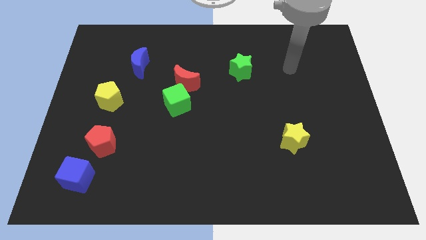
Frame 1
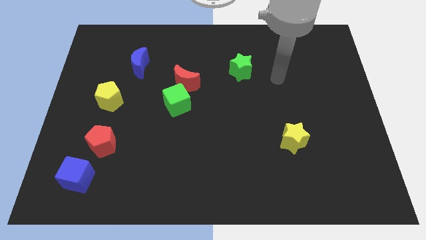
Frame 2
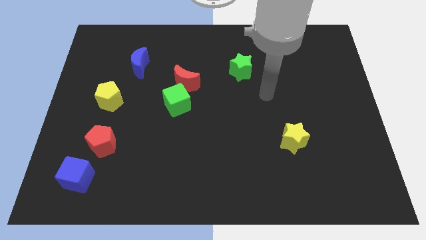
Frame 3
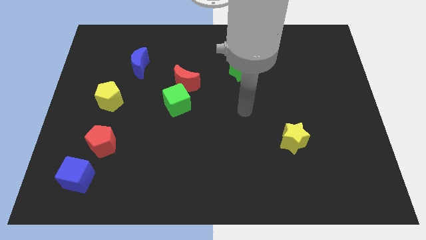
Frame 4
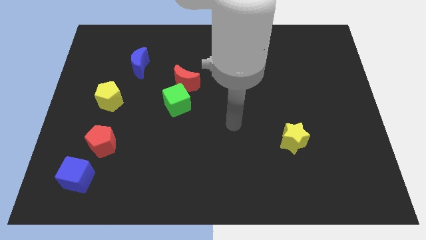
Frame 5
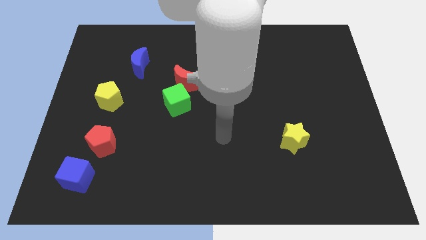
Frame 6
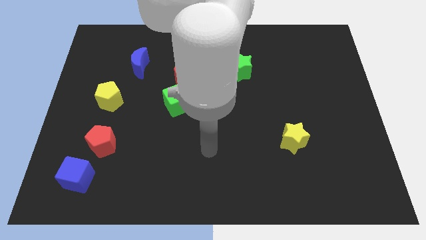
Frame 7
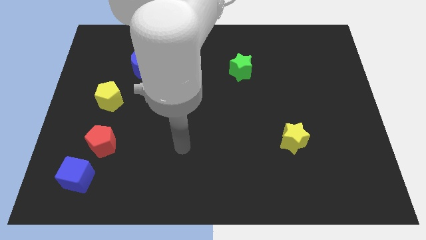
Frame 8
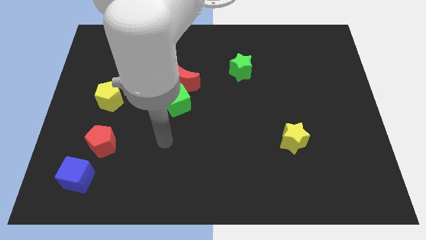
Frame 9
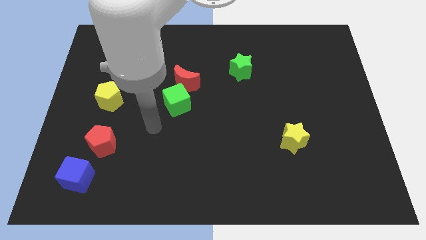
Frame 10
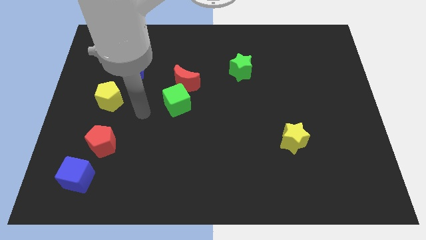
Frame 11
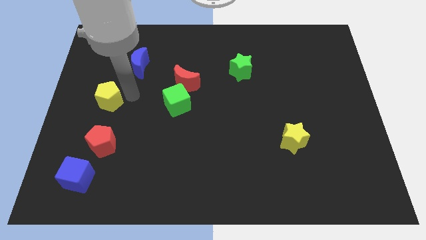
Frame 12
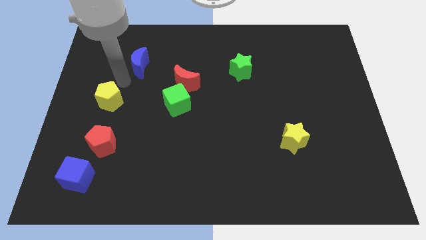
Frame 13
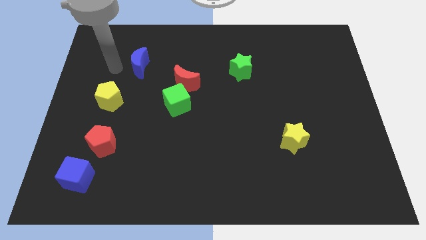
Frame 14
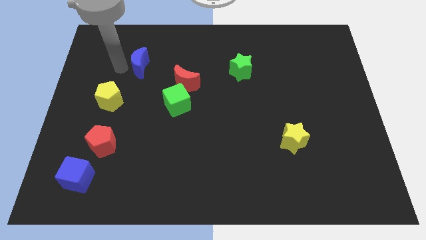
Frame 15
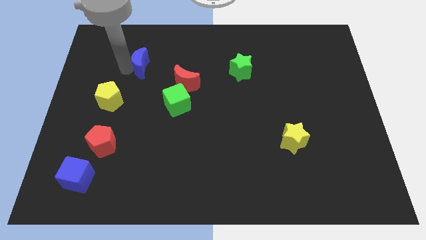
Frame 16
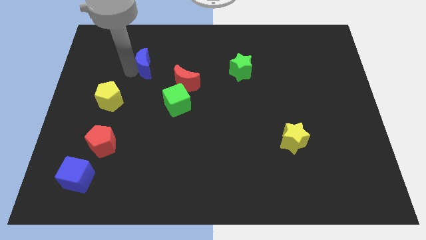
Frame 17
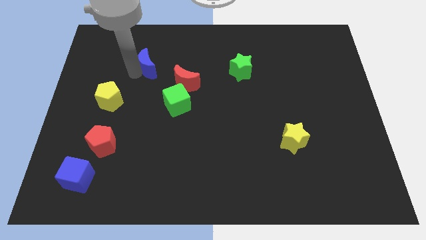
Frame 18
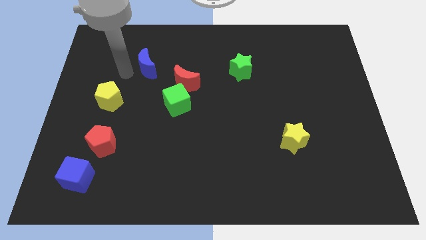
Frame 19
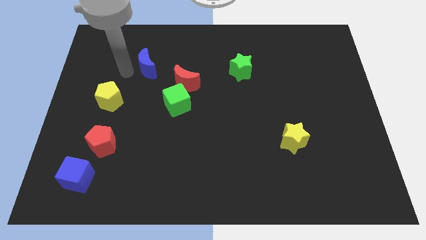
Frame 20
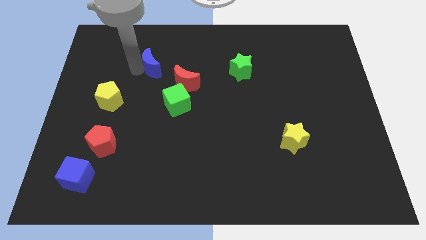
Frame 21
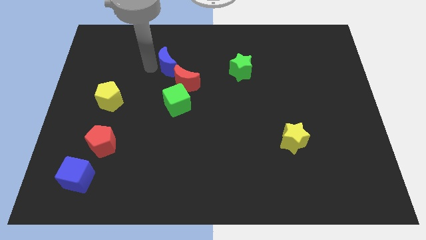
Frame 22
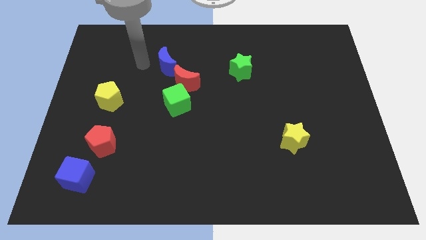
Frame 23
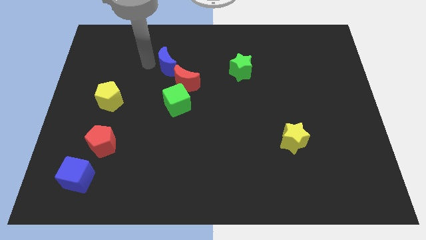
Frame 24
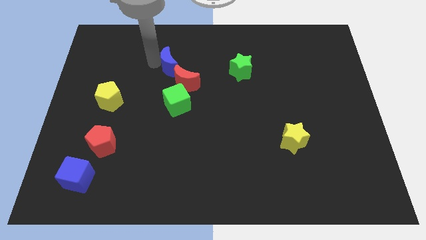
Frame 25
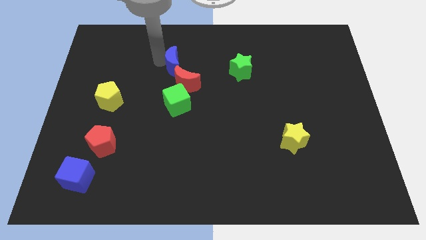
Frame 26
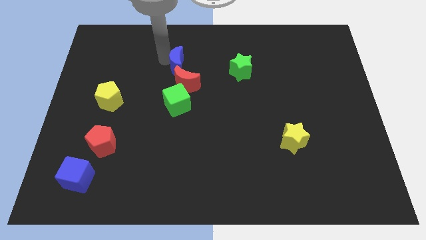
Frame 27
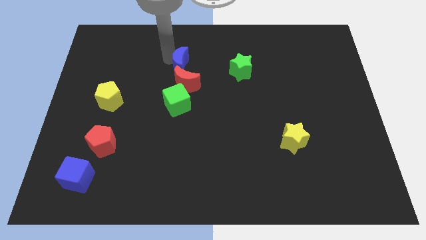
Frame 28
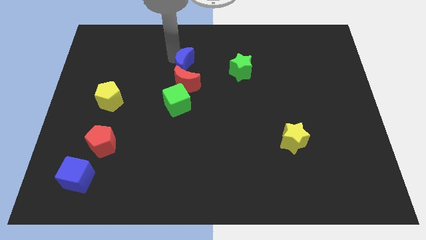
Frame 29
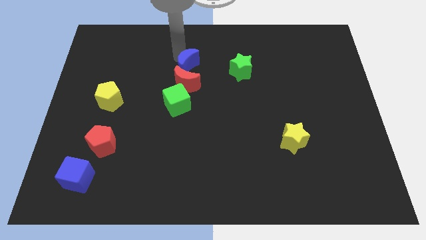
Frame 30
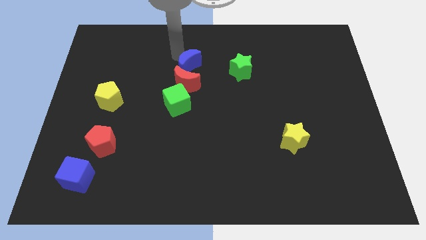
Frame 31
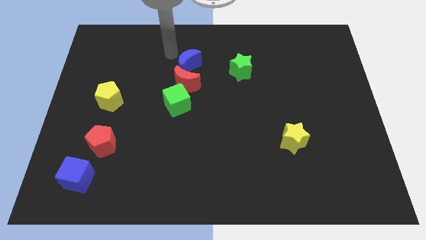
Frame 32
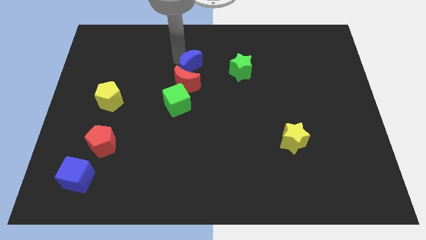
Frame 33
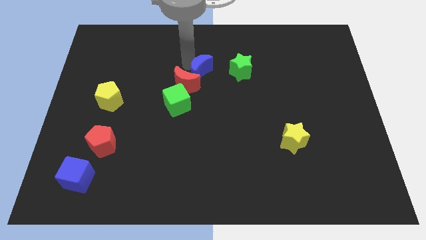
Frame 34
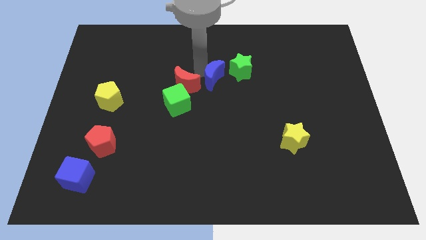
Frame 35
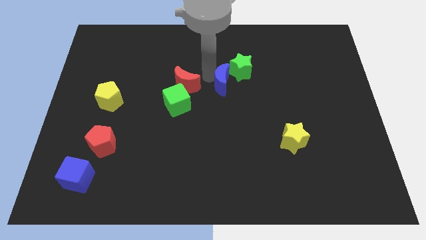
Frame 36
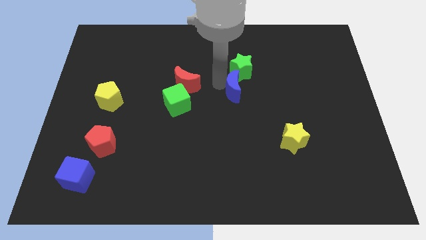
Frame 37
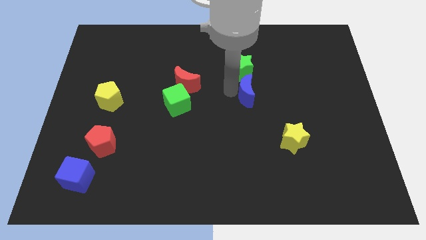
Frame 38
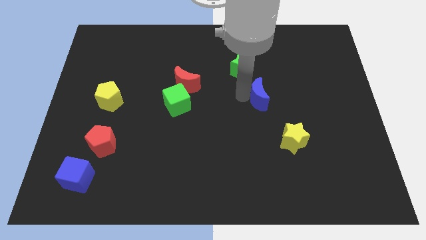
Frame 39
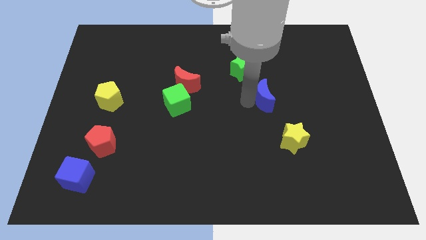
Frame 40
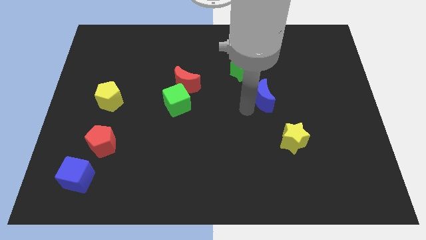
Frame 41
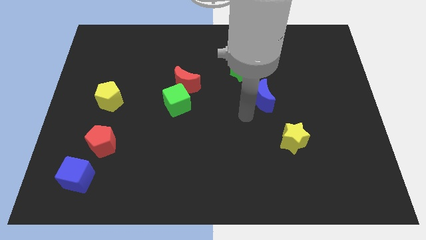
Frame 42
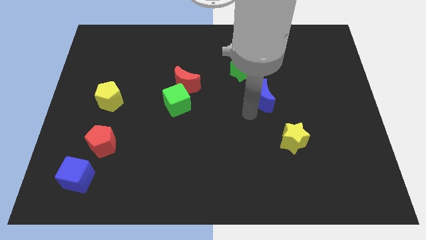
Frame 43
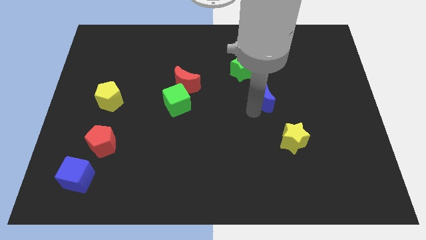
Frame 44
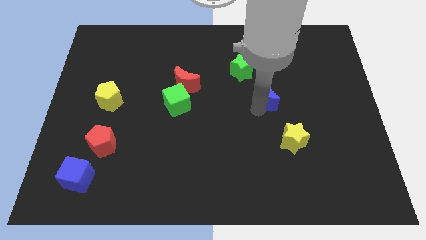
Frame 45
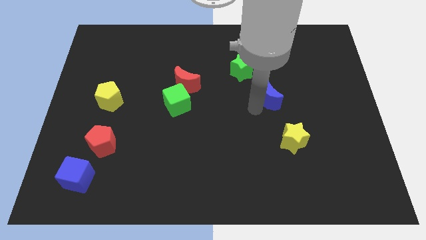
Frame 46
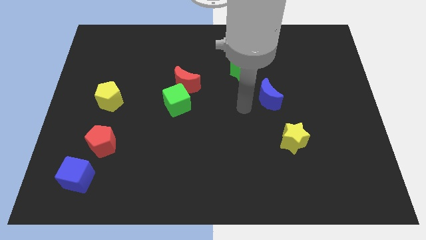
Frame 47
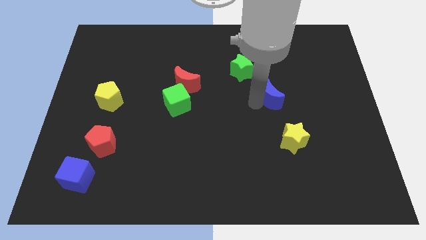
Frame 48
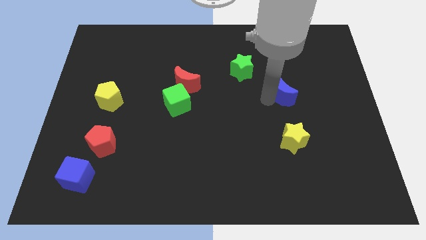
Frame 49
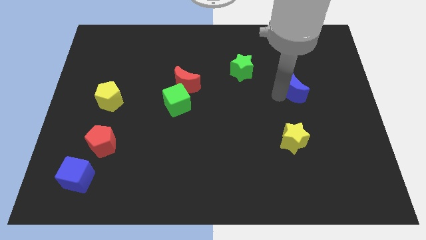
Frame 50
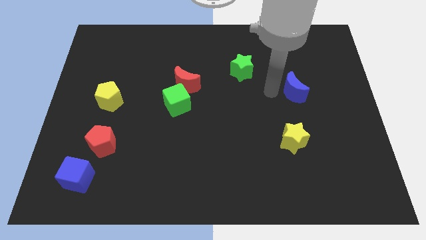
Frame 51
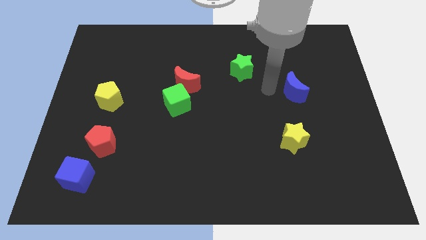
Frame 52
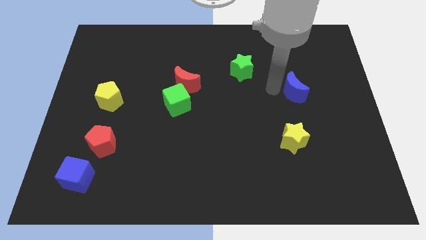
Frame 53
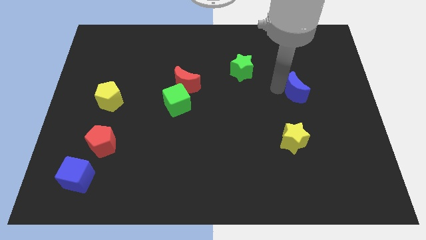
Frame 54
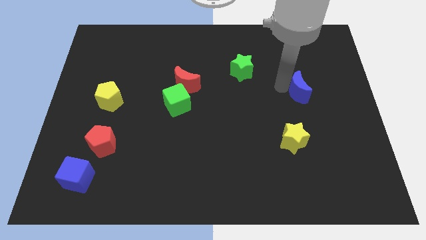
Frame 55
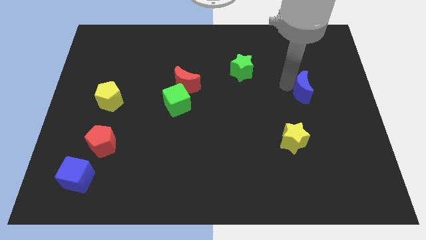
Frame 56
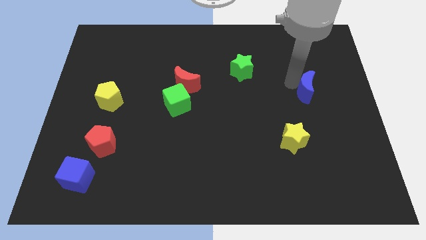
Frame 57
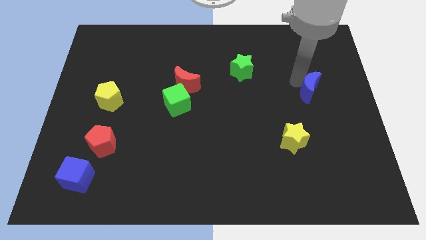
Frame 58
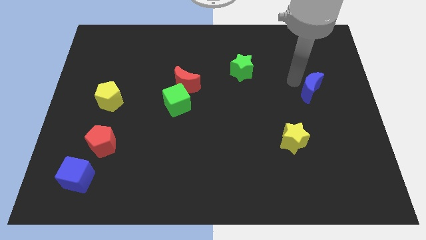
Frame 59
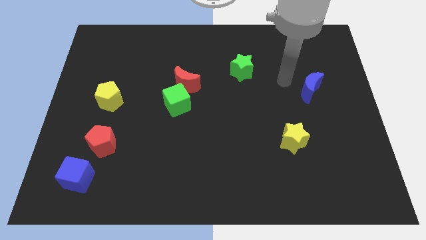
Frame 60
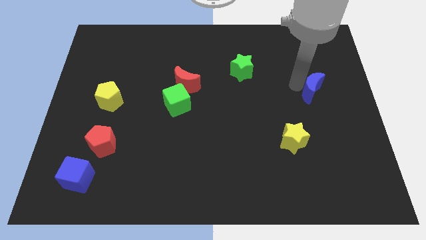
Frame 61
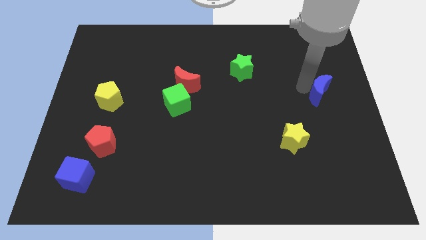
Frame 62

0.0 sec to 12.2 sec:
put the blue moon to the right side of the board
